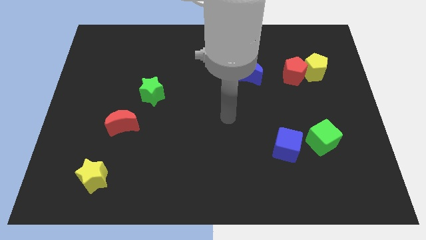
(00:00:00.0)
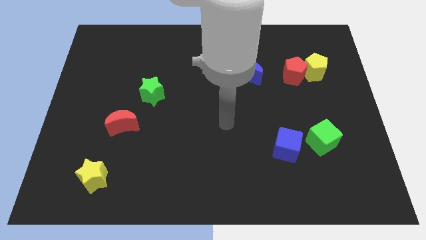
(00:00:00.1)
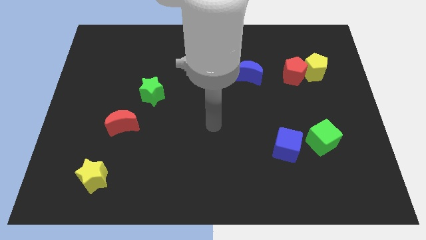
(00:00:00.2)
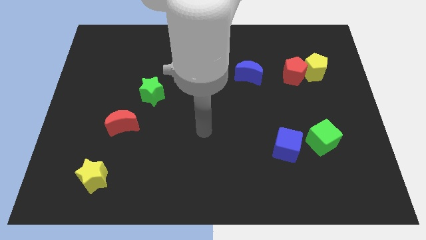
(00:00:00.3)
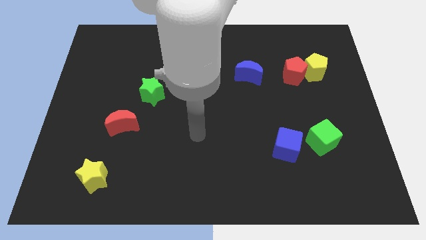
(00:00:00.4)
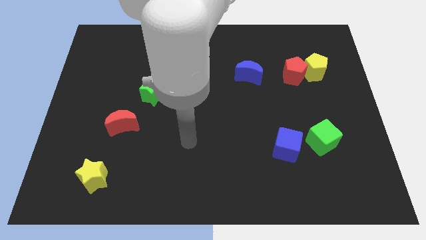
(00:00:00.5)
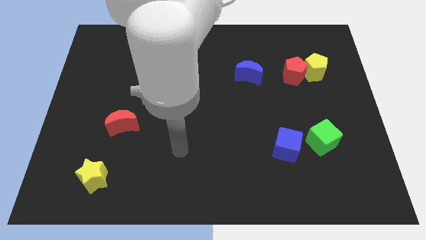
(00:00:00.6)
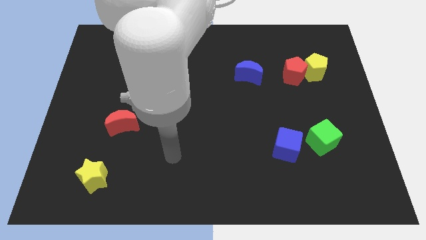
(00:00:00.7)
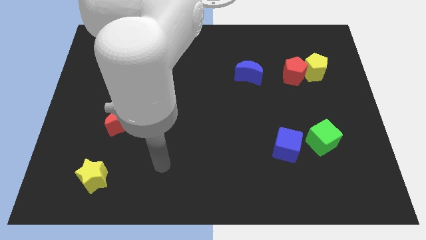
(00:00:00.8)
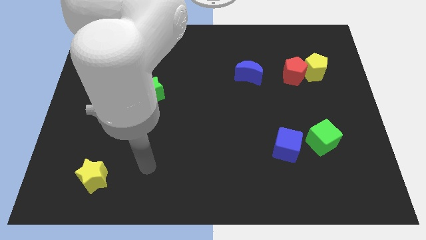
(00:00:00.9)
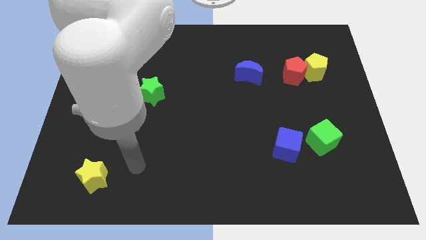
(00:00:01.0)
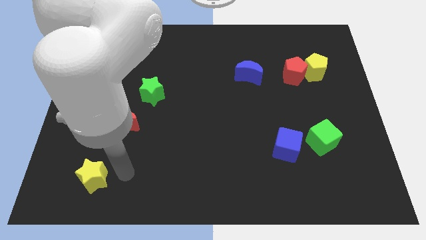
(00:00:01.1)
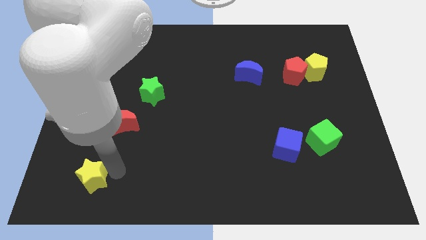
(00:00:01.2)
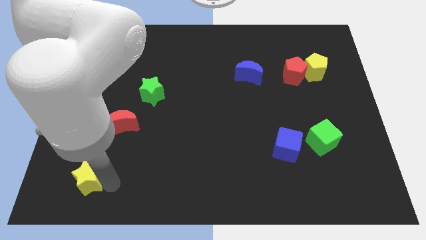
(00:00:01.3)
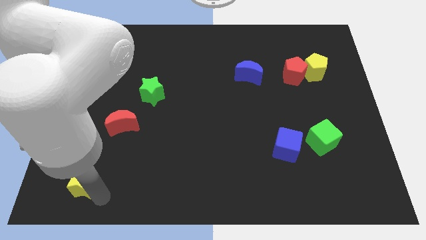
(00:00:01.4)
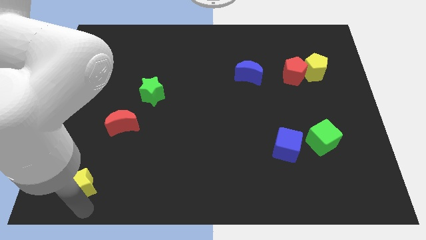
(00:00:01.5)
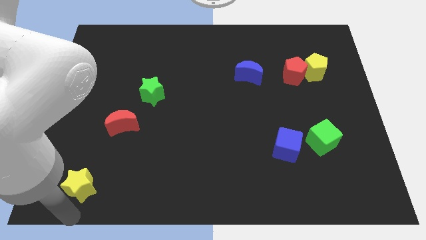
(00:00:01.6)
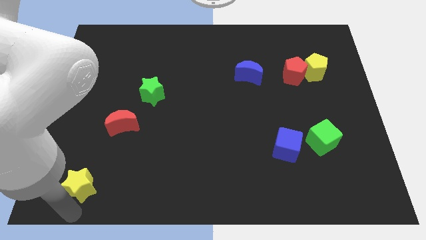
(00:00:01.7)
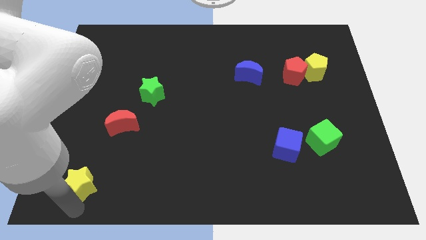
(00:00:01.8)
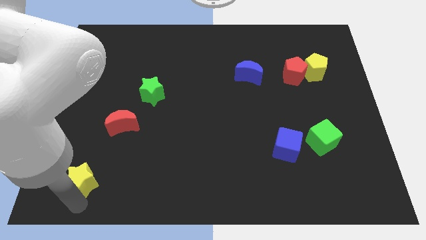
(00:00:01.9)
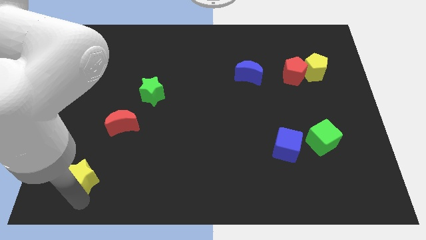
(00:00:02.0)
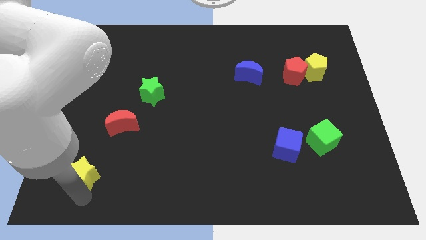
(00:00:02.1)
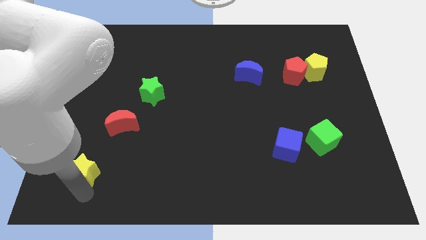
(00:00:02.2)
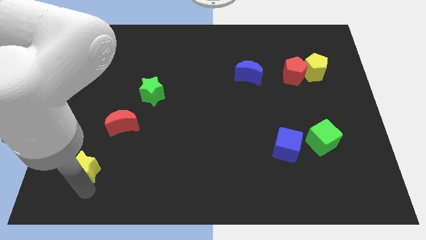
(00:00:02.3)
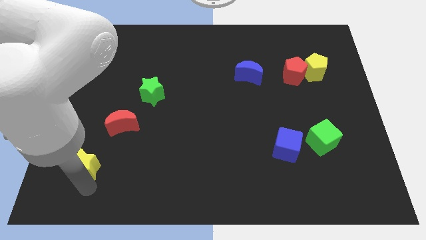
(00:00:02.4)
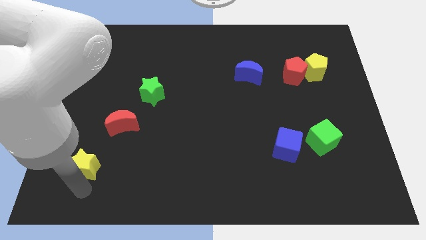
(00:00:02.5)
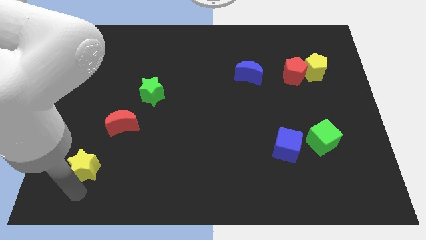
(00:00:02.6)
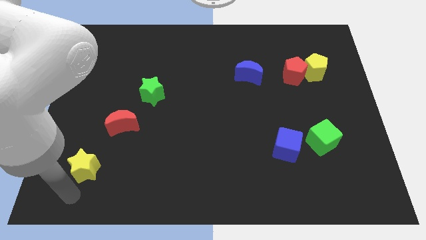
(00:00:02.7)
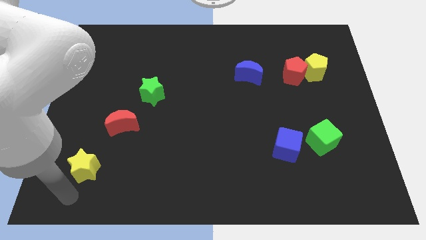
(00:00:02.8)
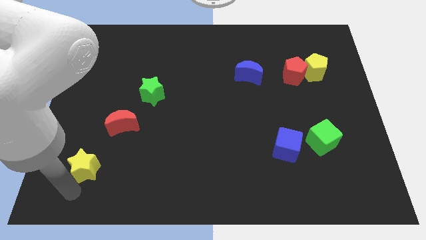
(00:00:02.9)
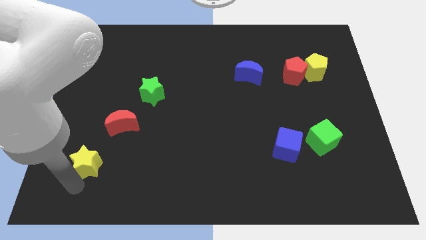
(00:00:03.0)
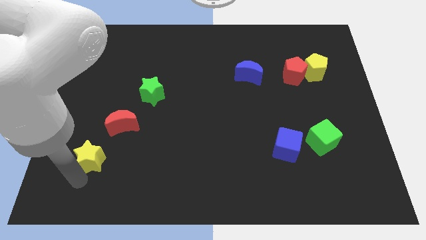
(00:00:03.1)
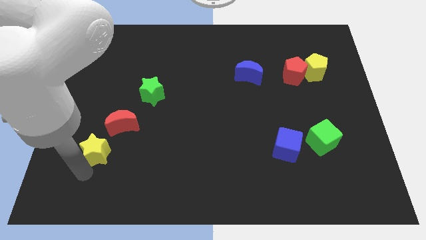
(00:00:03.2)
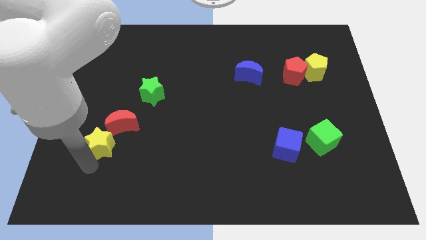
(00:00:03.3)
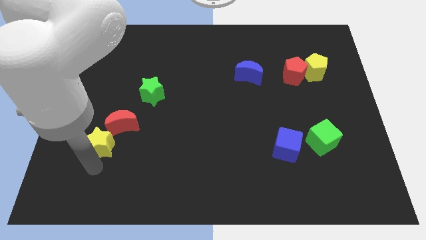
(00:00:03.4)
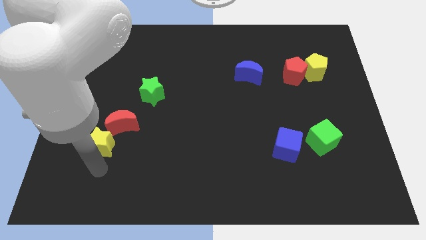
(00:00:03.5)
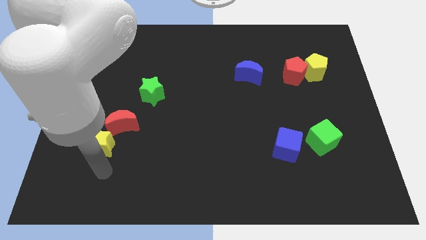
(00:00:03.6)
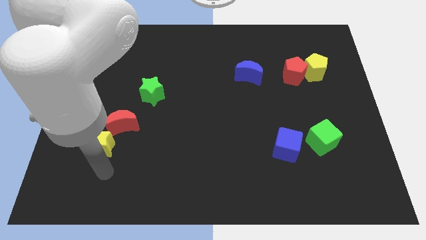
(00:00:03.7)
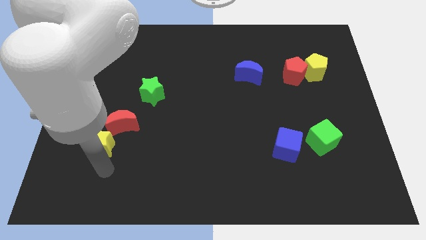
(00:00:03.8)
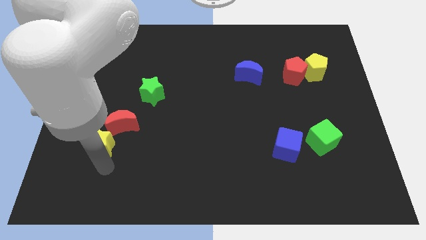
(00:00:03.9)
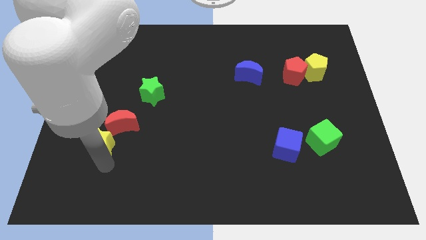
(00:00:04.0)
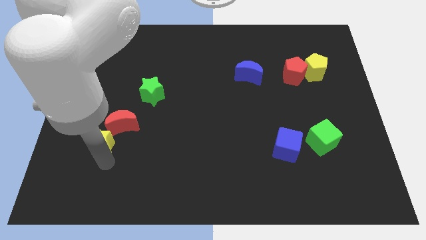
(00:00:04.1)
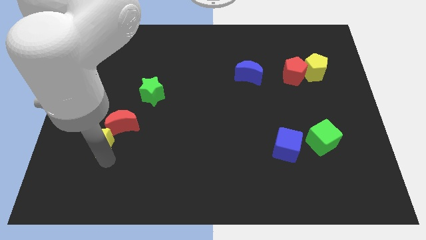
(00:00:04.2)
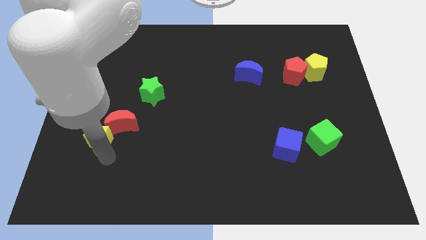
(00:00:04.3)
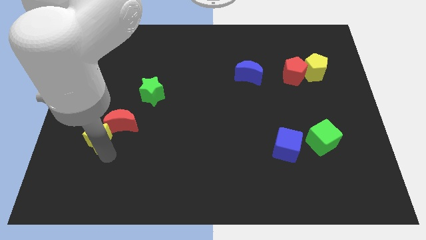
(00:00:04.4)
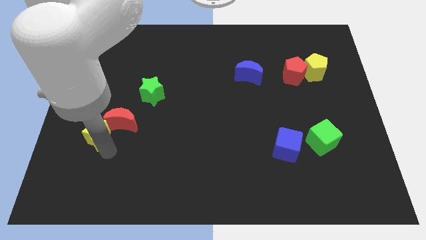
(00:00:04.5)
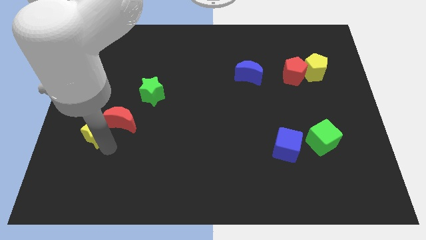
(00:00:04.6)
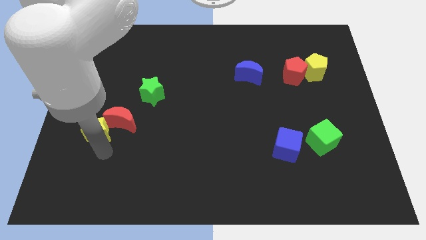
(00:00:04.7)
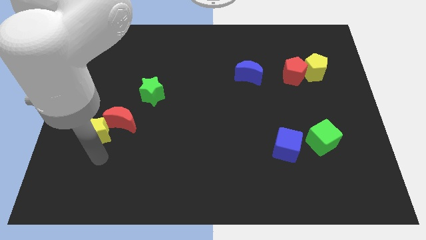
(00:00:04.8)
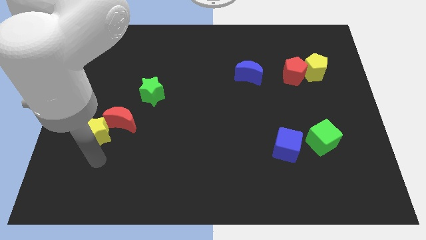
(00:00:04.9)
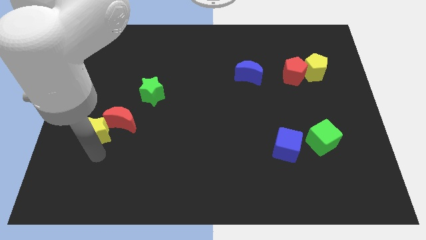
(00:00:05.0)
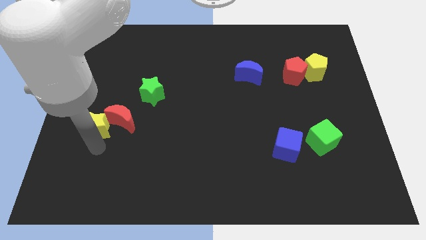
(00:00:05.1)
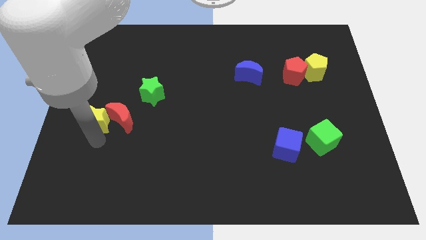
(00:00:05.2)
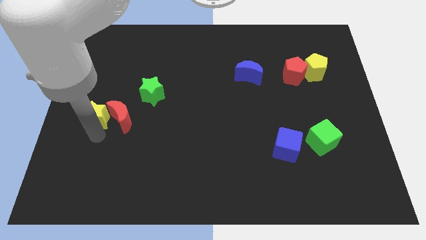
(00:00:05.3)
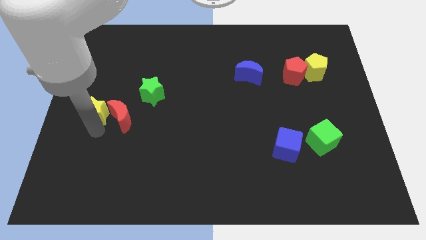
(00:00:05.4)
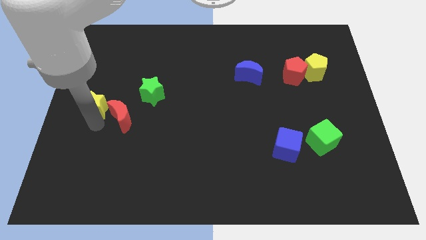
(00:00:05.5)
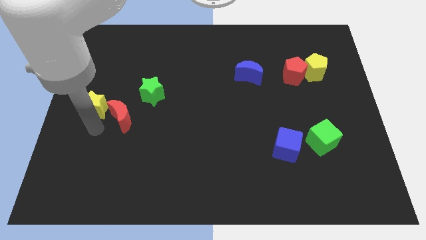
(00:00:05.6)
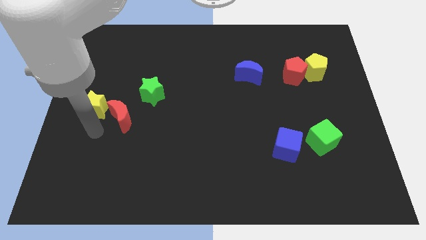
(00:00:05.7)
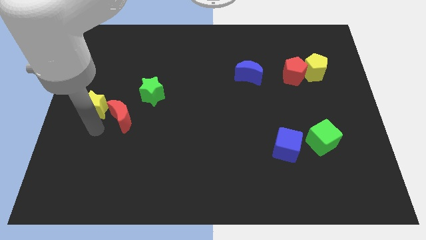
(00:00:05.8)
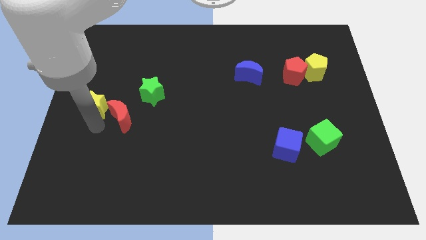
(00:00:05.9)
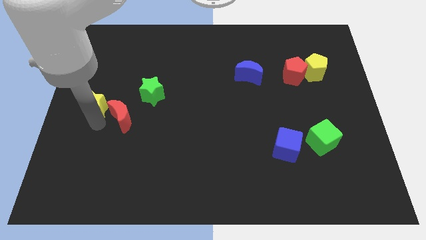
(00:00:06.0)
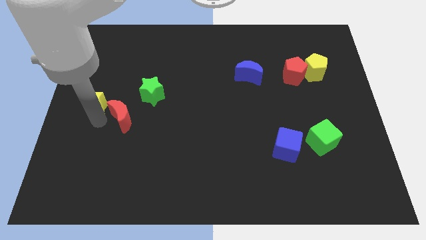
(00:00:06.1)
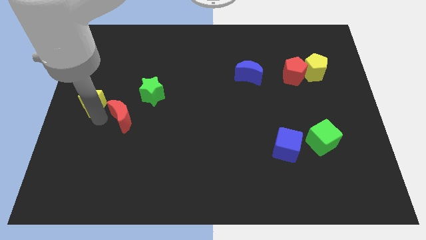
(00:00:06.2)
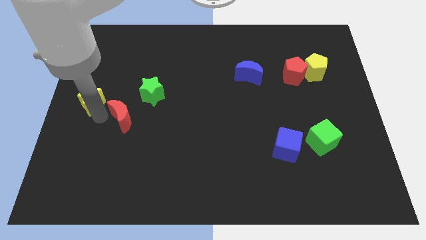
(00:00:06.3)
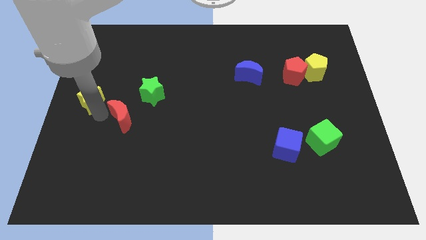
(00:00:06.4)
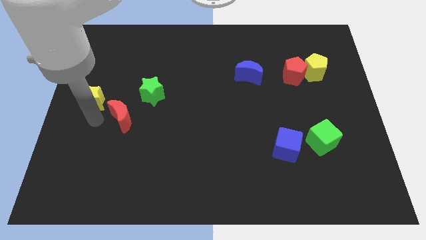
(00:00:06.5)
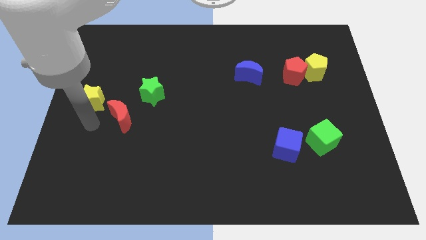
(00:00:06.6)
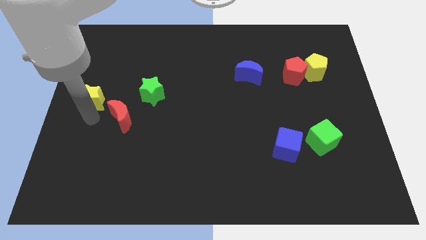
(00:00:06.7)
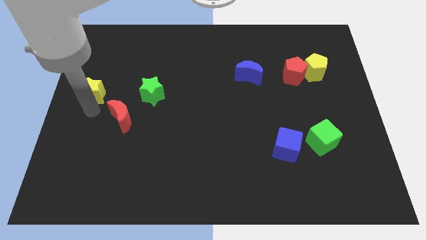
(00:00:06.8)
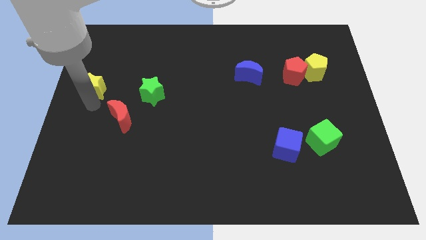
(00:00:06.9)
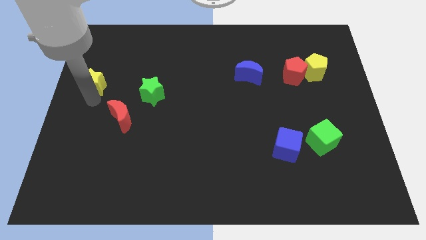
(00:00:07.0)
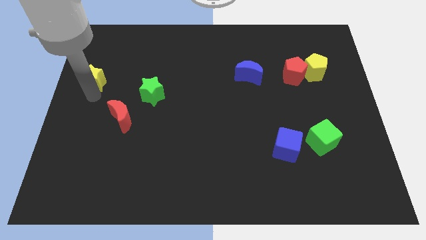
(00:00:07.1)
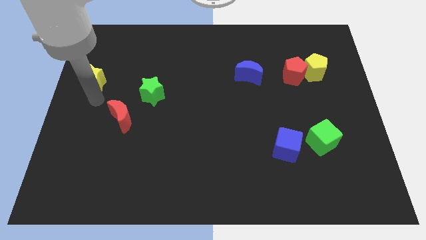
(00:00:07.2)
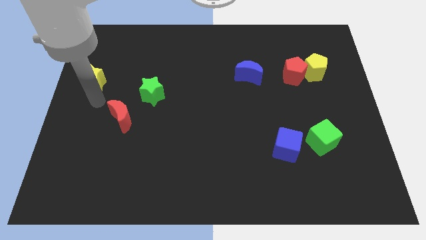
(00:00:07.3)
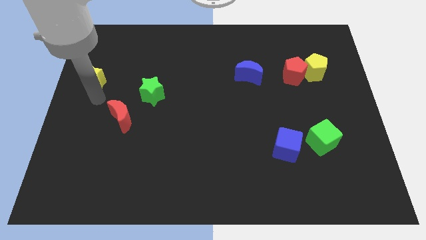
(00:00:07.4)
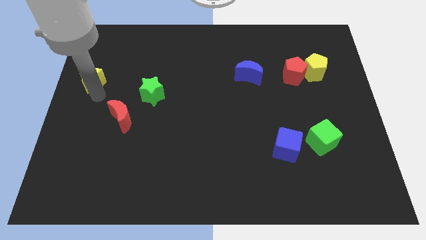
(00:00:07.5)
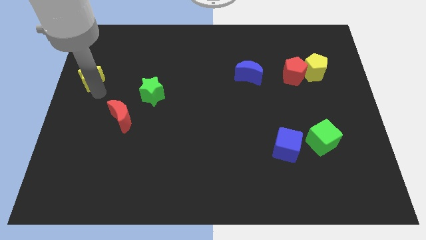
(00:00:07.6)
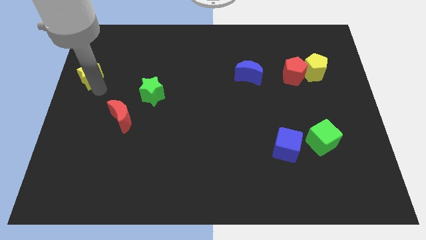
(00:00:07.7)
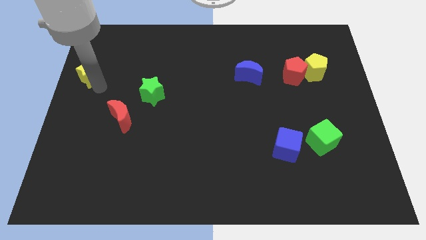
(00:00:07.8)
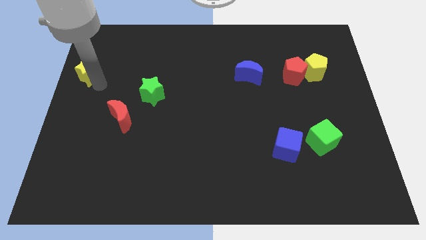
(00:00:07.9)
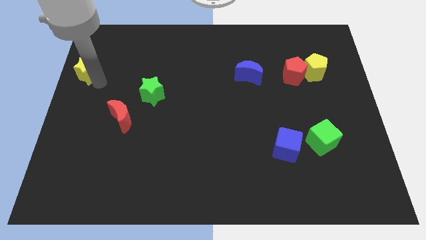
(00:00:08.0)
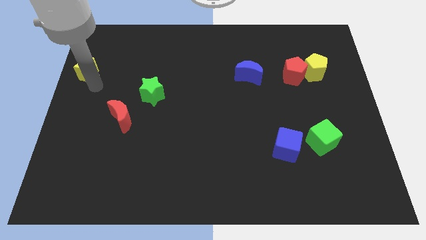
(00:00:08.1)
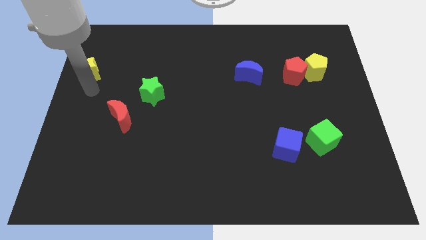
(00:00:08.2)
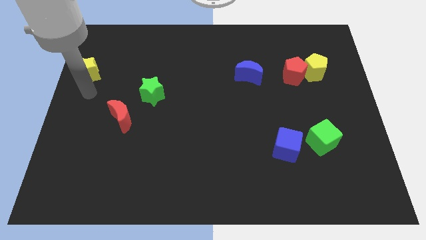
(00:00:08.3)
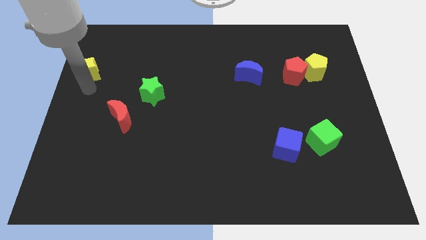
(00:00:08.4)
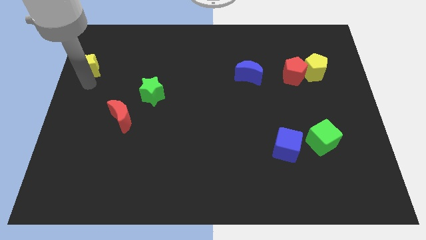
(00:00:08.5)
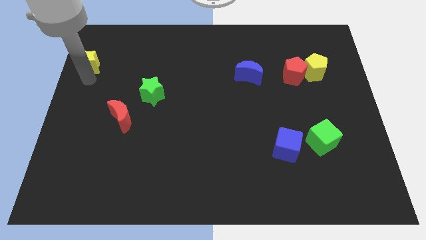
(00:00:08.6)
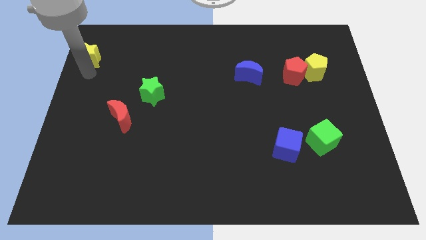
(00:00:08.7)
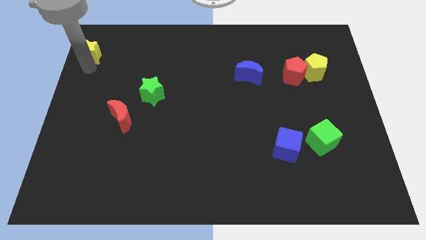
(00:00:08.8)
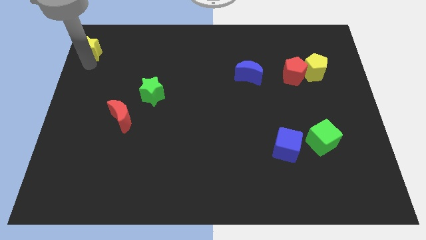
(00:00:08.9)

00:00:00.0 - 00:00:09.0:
put the yellow star to the top left
